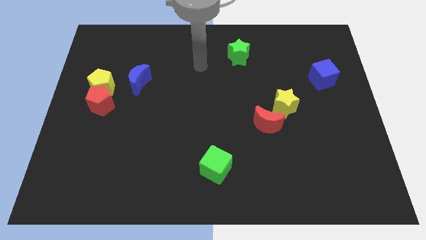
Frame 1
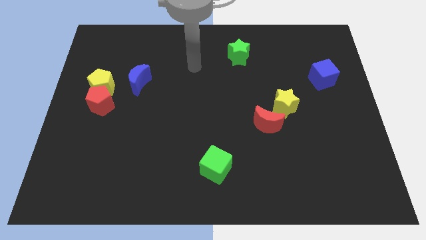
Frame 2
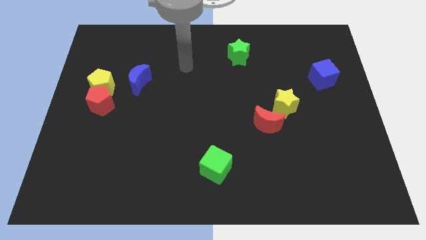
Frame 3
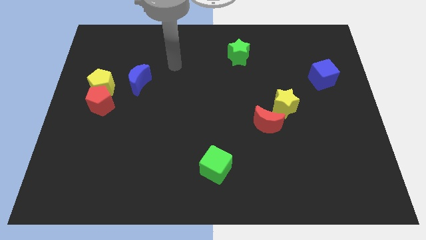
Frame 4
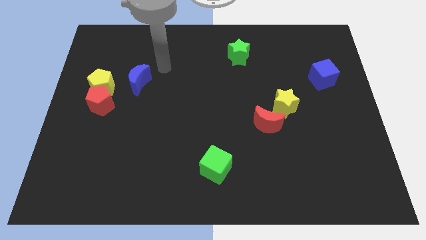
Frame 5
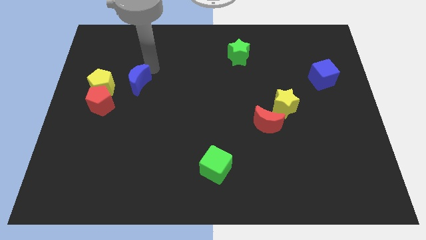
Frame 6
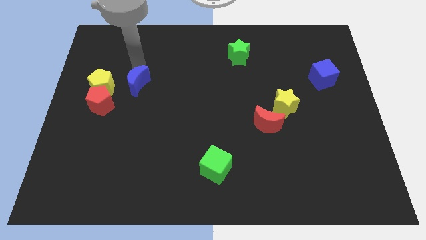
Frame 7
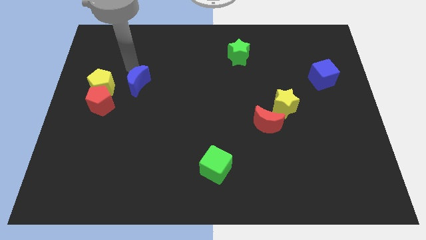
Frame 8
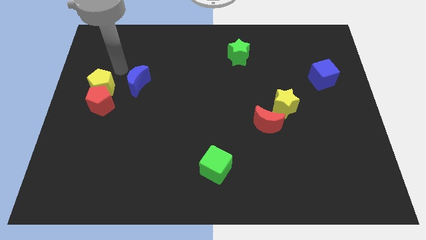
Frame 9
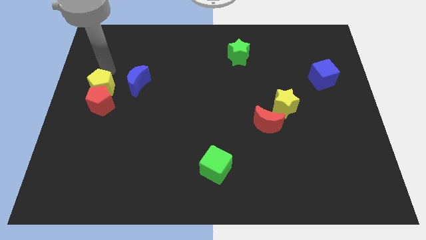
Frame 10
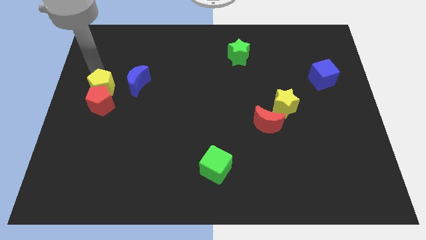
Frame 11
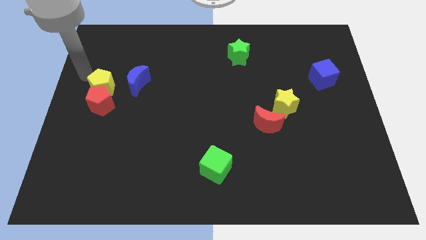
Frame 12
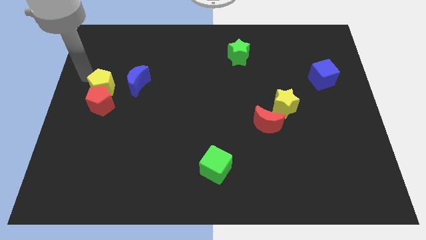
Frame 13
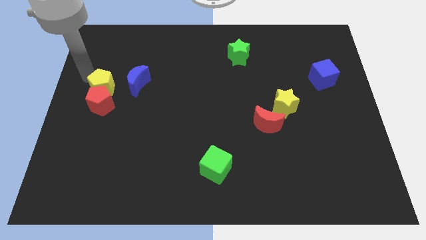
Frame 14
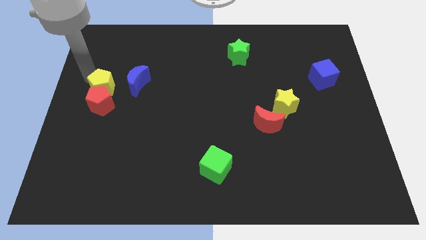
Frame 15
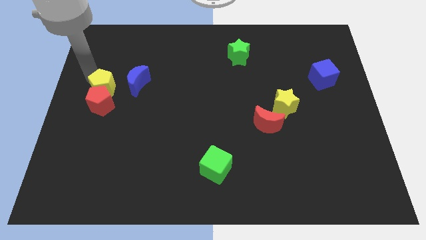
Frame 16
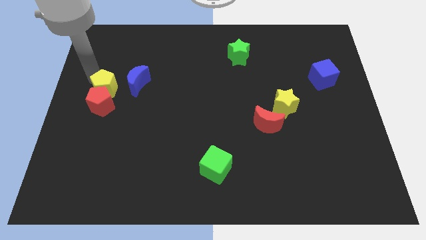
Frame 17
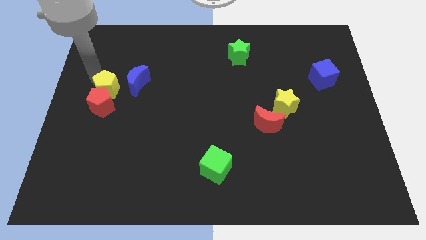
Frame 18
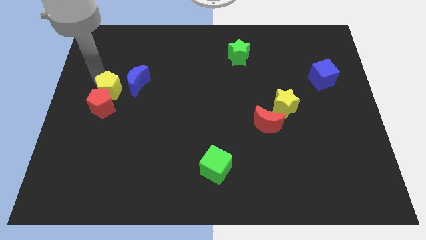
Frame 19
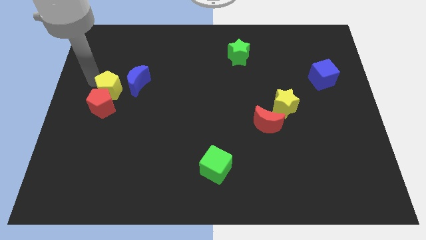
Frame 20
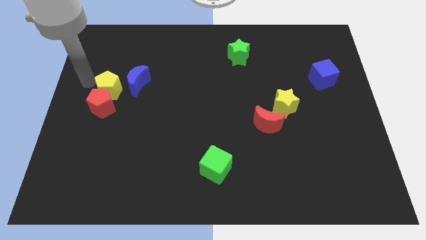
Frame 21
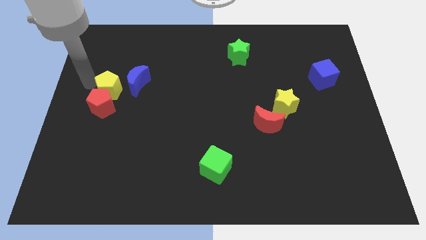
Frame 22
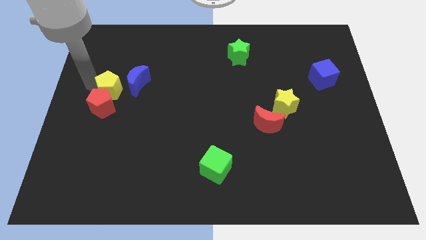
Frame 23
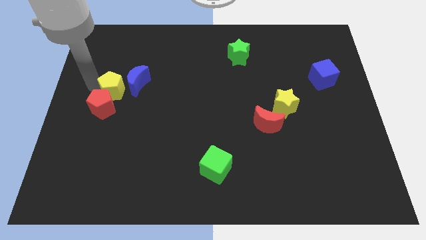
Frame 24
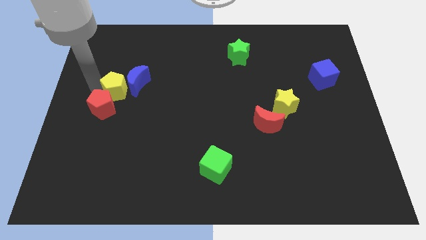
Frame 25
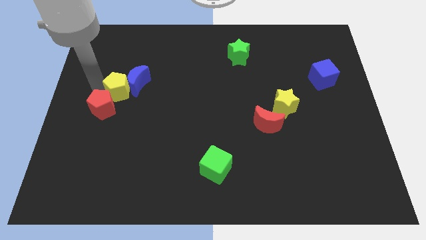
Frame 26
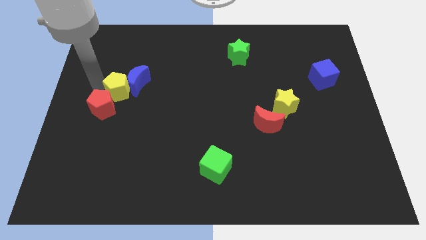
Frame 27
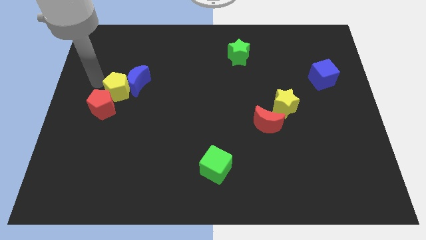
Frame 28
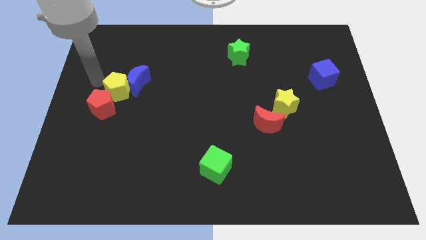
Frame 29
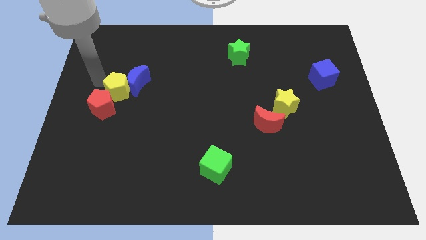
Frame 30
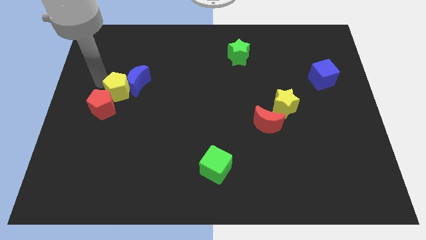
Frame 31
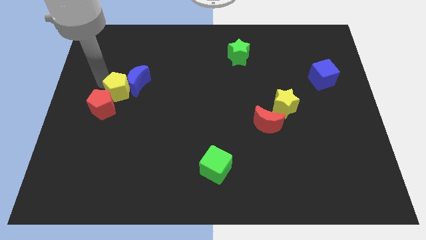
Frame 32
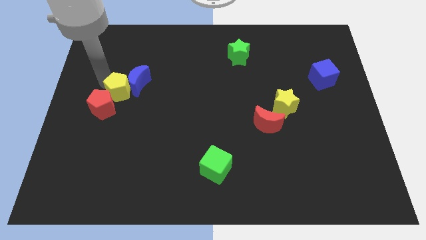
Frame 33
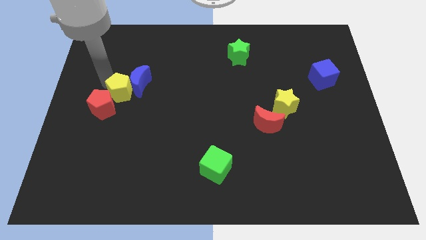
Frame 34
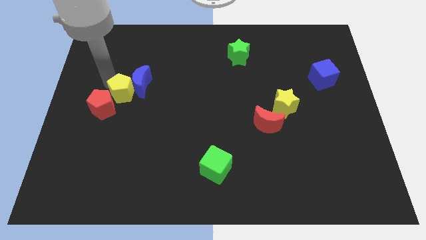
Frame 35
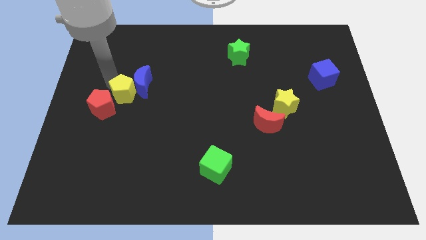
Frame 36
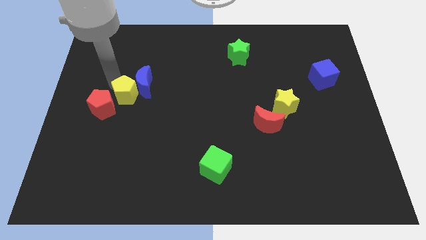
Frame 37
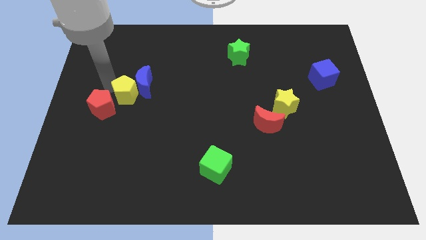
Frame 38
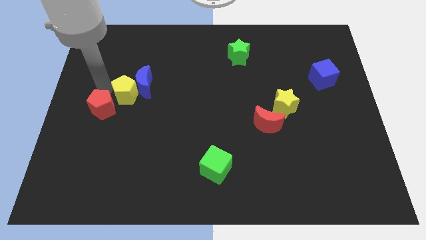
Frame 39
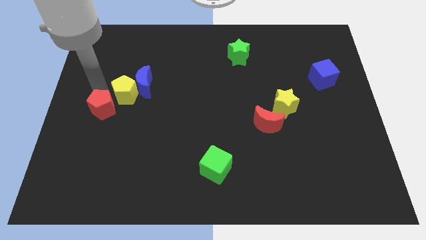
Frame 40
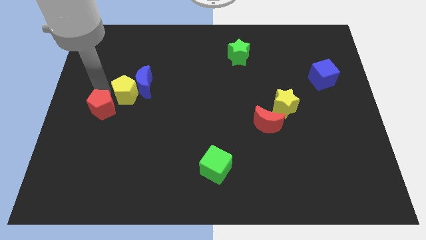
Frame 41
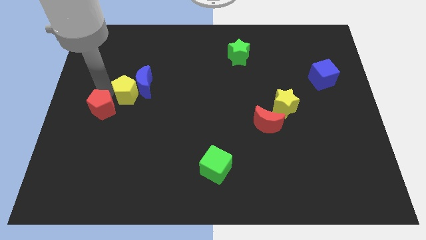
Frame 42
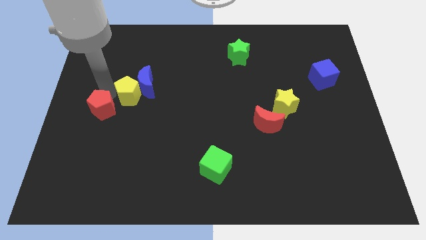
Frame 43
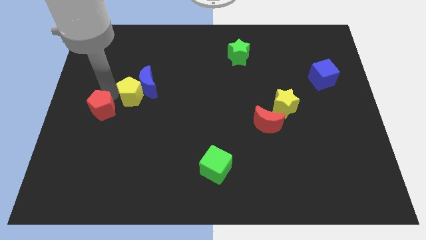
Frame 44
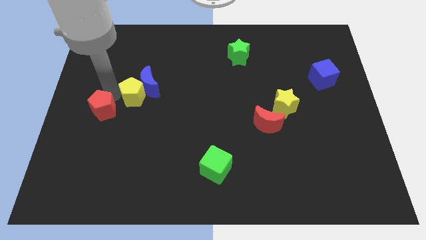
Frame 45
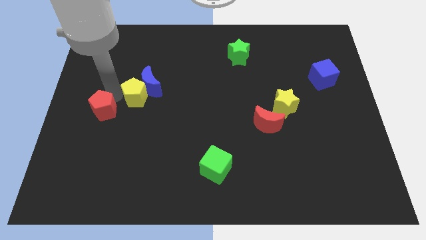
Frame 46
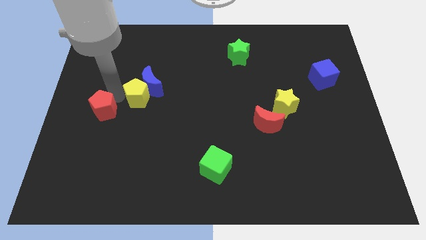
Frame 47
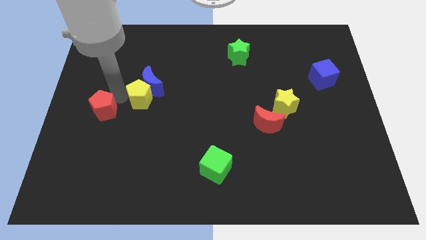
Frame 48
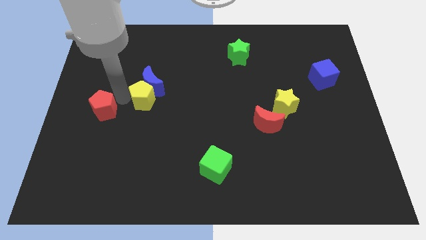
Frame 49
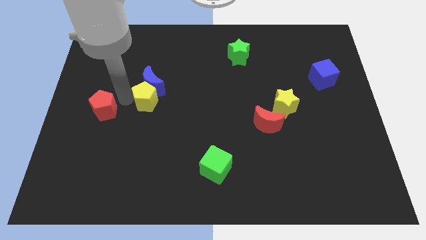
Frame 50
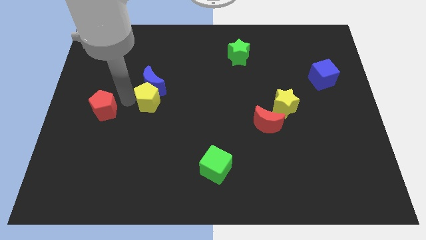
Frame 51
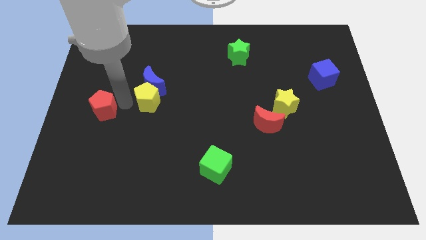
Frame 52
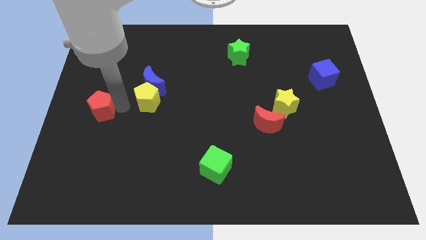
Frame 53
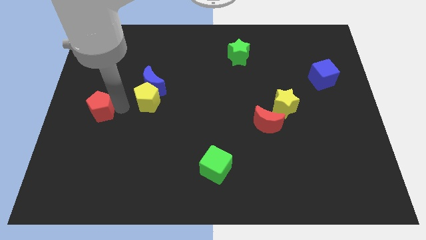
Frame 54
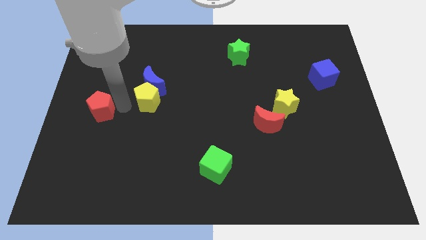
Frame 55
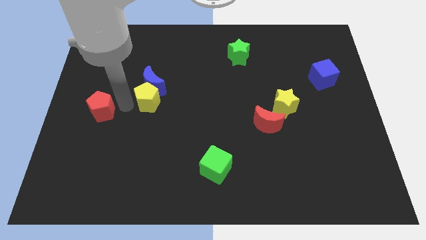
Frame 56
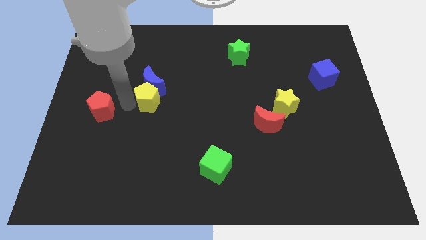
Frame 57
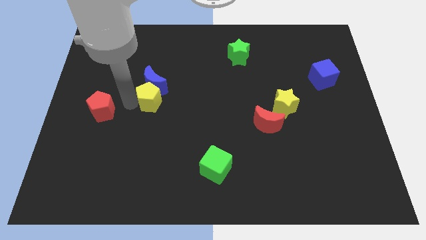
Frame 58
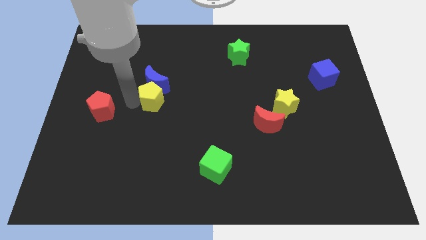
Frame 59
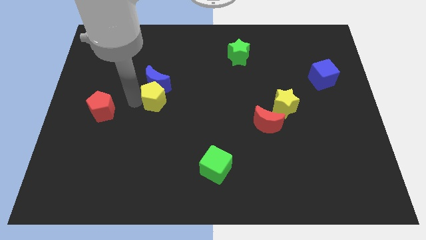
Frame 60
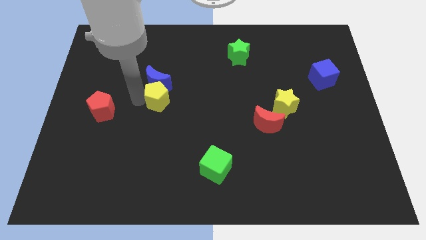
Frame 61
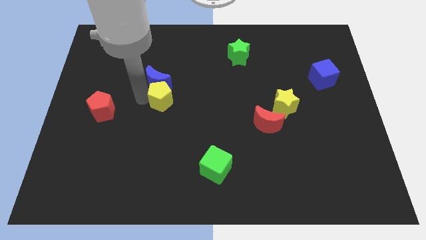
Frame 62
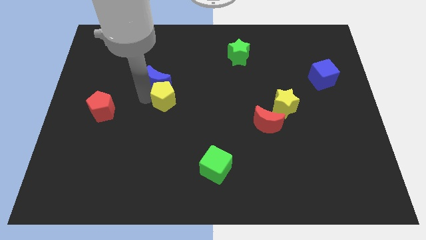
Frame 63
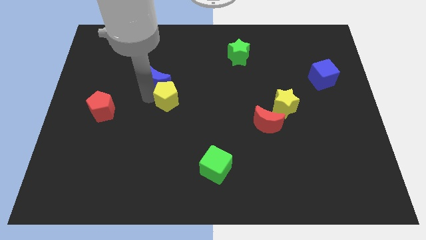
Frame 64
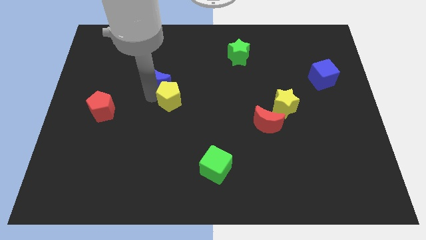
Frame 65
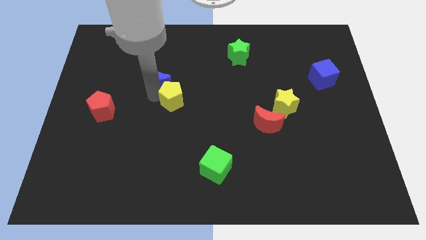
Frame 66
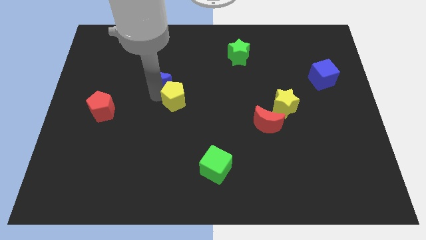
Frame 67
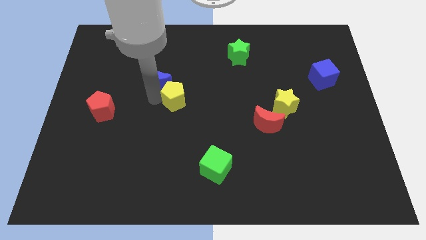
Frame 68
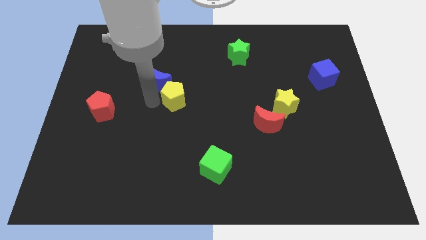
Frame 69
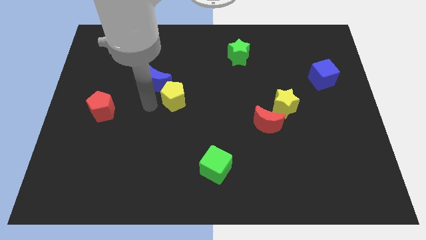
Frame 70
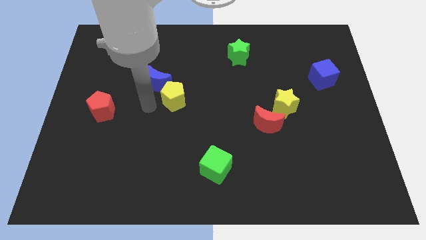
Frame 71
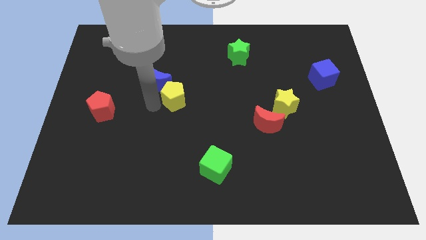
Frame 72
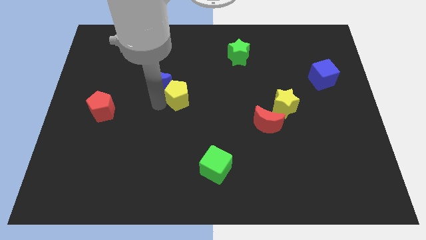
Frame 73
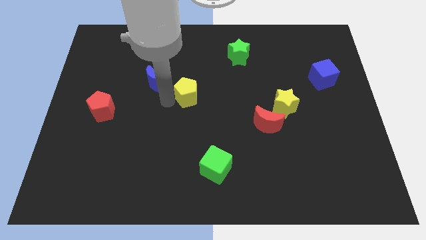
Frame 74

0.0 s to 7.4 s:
move the yellow pentagon to the right
